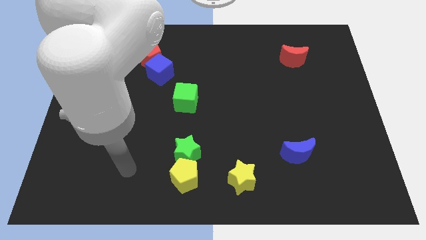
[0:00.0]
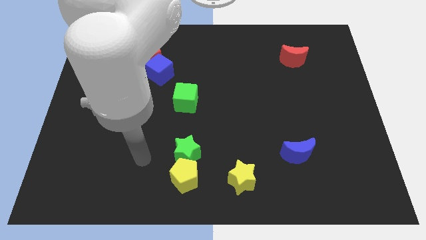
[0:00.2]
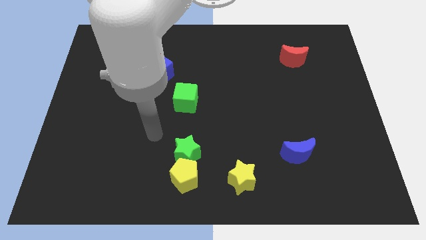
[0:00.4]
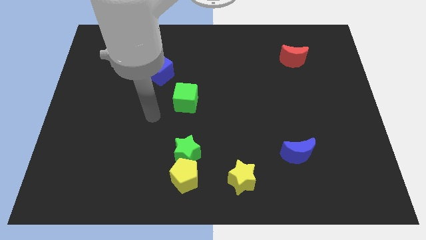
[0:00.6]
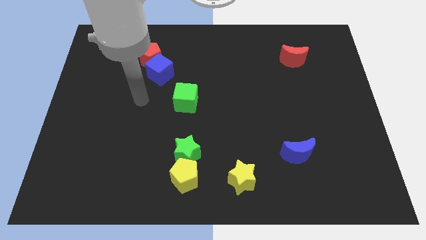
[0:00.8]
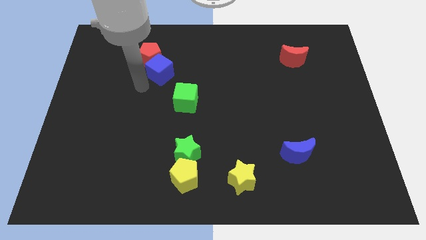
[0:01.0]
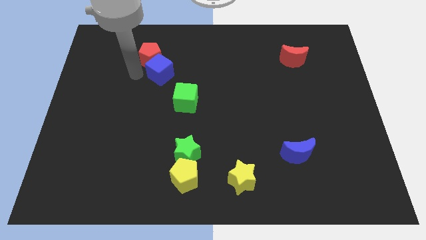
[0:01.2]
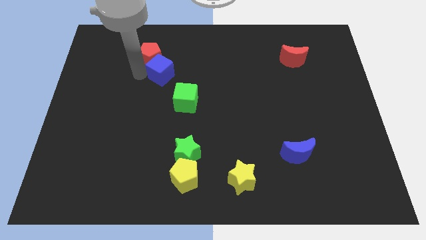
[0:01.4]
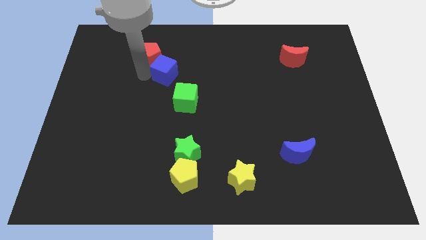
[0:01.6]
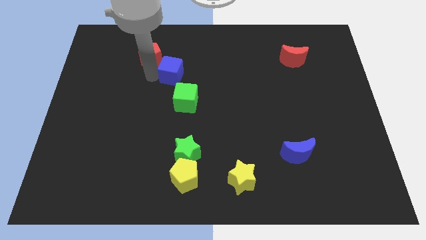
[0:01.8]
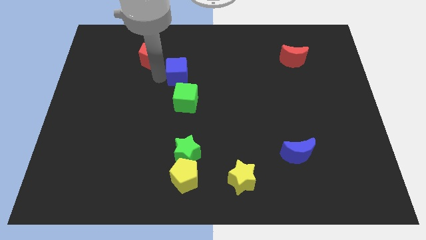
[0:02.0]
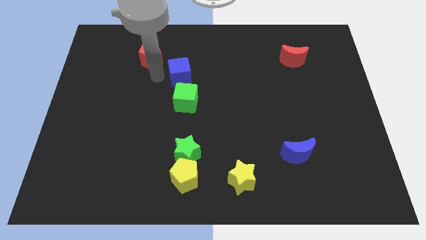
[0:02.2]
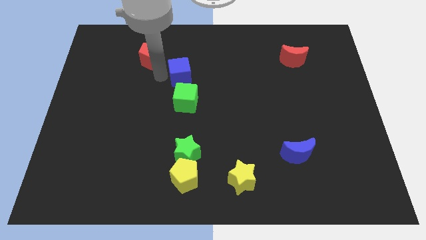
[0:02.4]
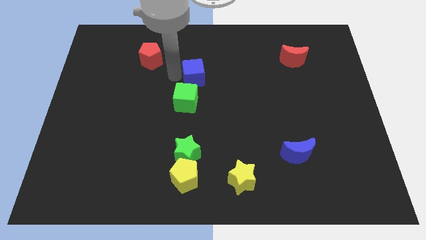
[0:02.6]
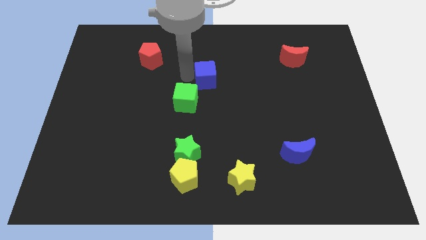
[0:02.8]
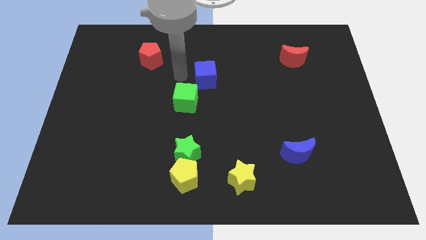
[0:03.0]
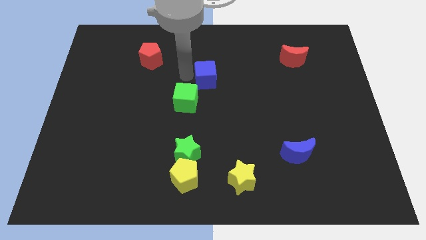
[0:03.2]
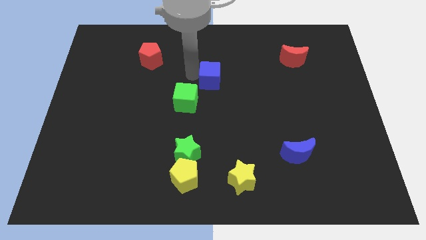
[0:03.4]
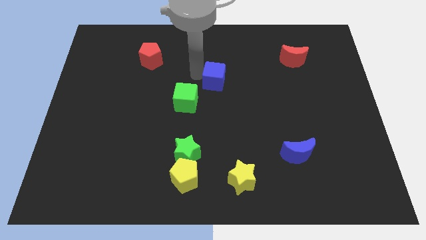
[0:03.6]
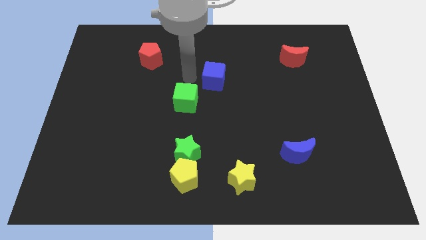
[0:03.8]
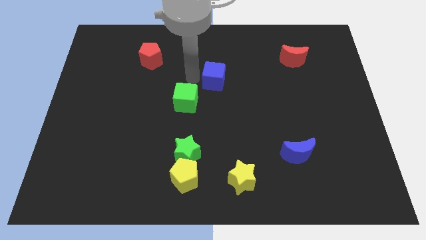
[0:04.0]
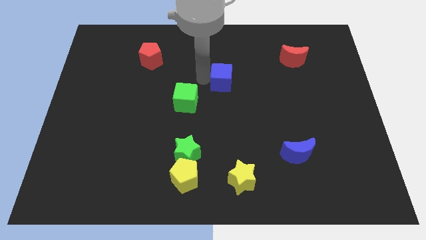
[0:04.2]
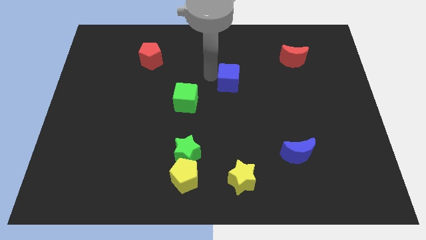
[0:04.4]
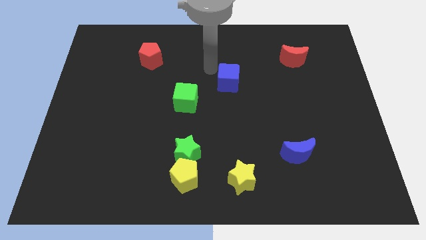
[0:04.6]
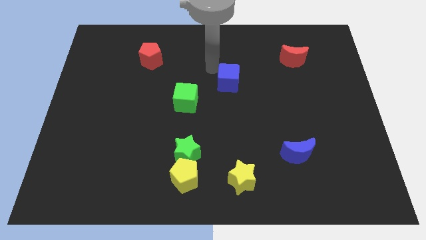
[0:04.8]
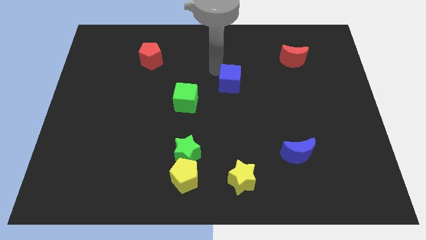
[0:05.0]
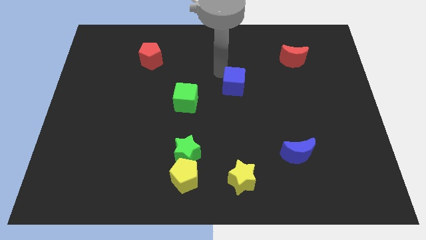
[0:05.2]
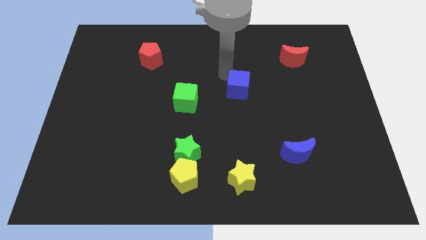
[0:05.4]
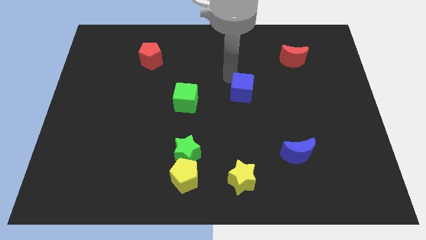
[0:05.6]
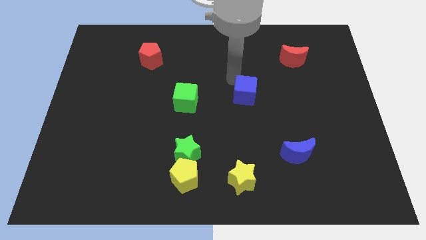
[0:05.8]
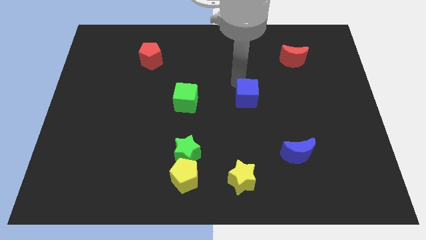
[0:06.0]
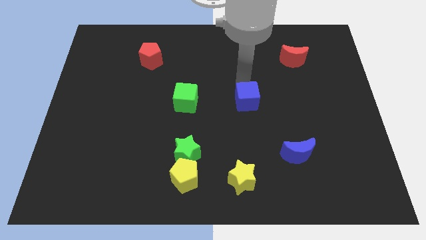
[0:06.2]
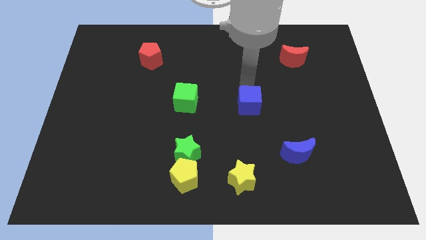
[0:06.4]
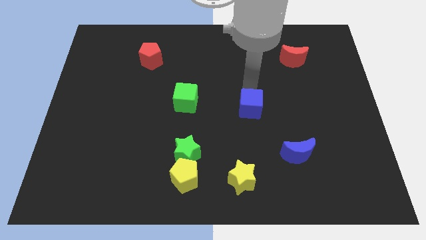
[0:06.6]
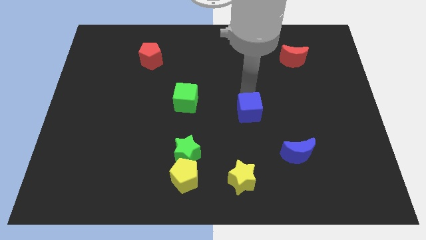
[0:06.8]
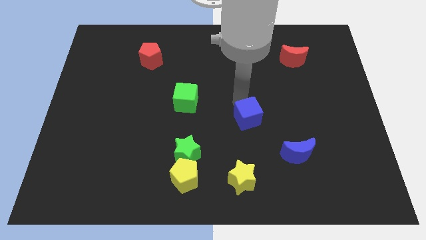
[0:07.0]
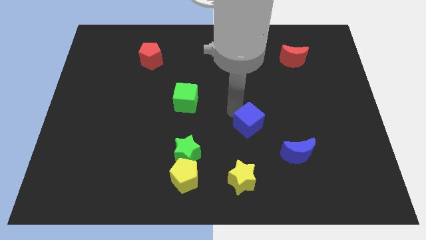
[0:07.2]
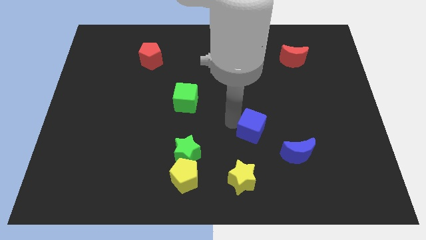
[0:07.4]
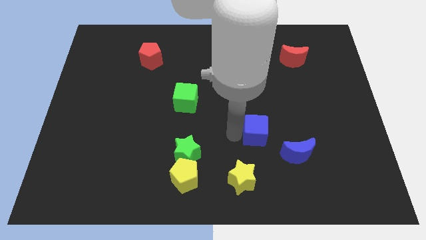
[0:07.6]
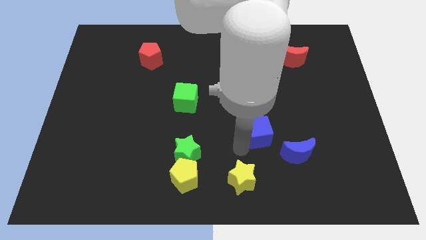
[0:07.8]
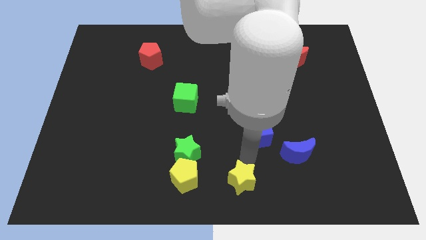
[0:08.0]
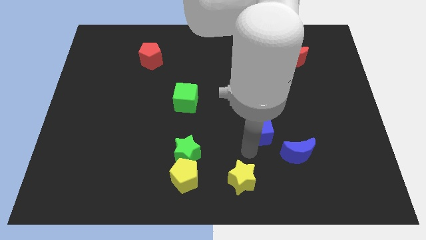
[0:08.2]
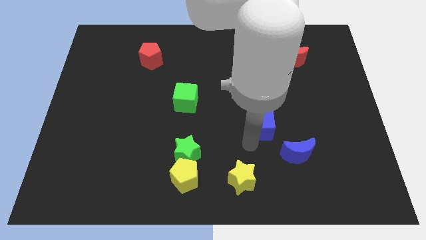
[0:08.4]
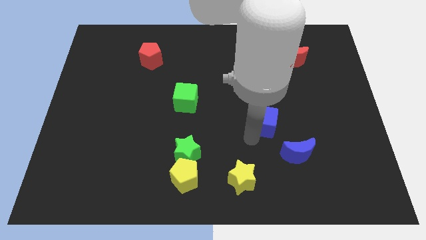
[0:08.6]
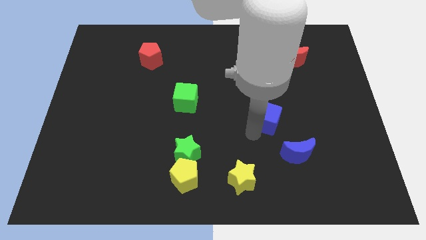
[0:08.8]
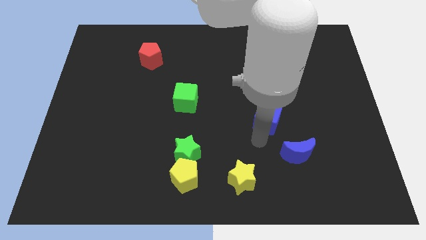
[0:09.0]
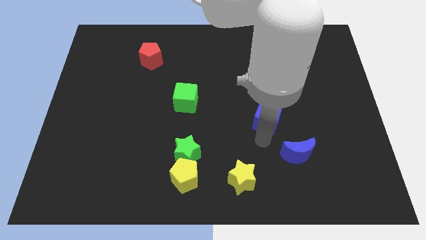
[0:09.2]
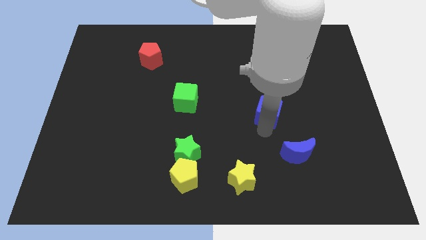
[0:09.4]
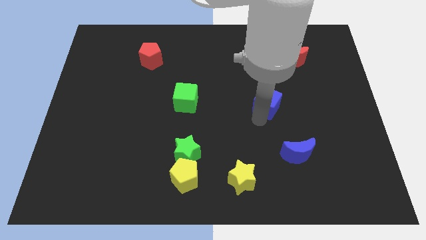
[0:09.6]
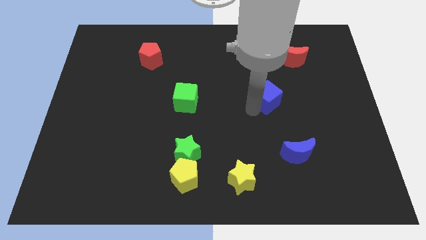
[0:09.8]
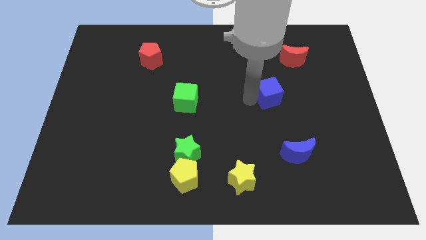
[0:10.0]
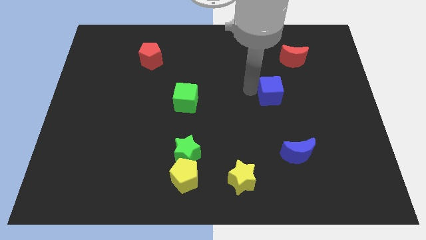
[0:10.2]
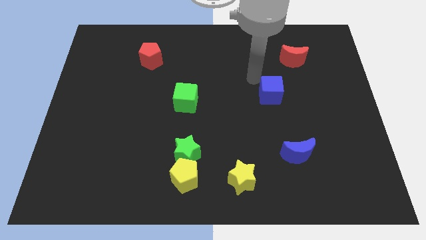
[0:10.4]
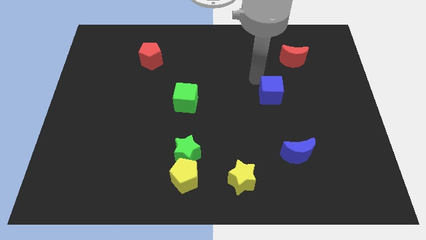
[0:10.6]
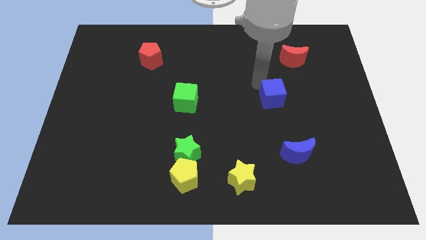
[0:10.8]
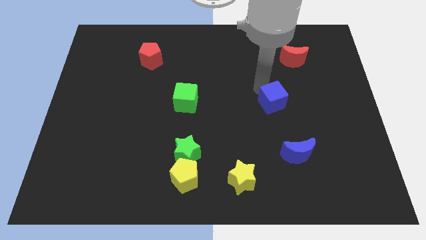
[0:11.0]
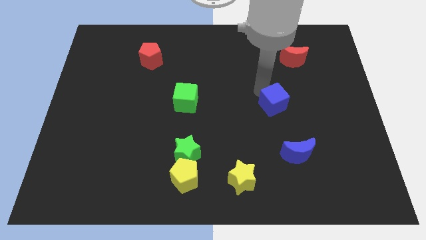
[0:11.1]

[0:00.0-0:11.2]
slide the blue cube to the top of the blue moon
